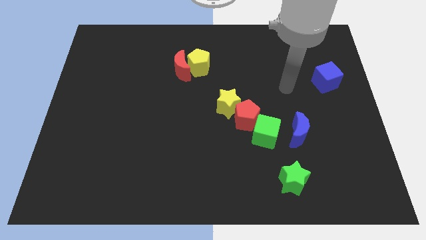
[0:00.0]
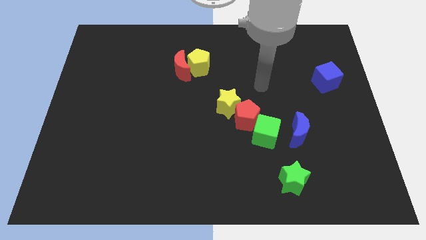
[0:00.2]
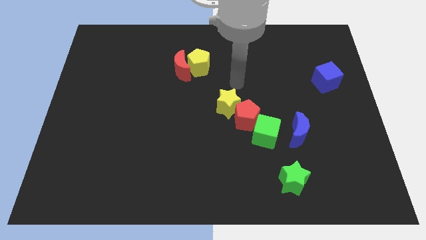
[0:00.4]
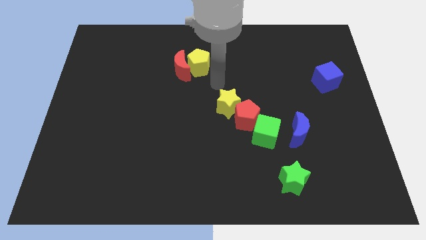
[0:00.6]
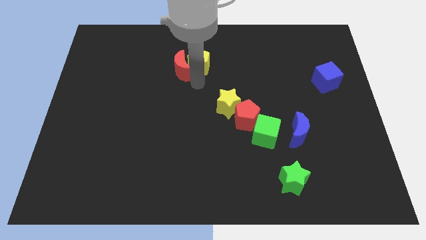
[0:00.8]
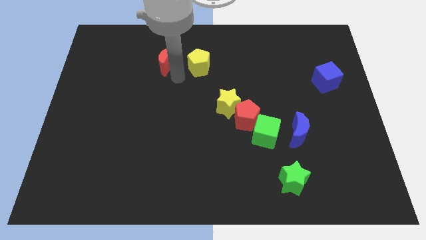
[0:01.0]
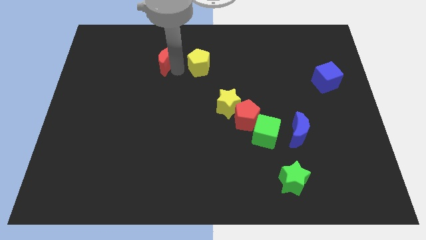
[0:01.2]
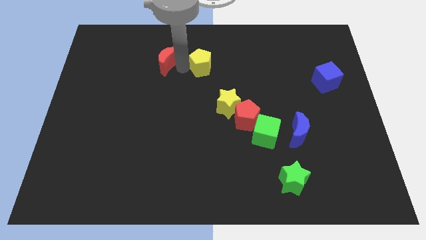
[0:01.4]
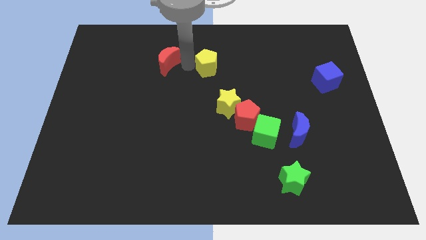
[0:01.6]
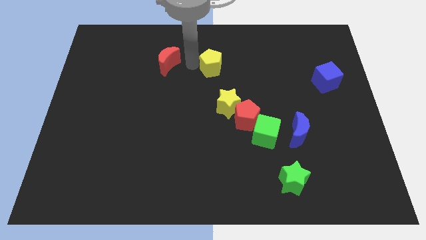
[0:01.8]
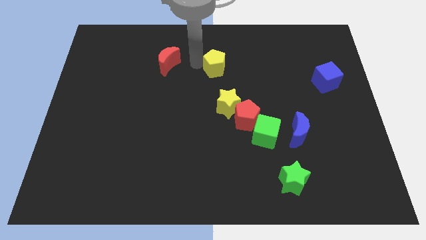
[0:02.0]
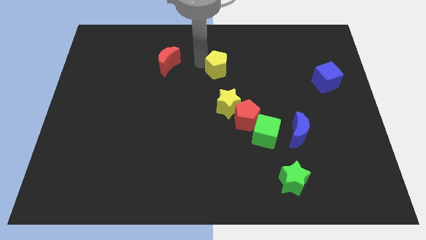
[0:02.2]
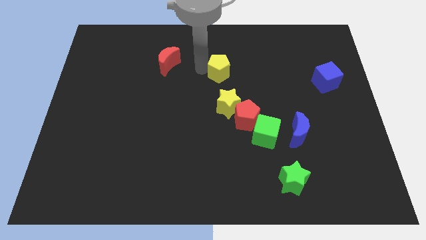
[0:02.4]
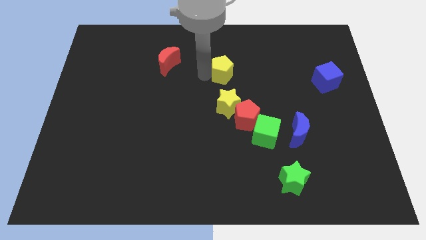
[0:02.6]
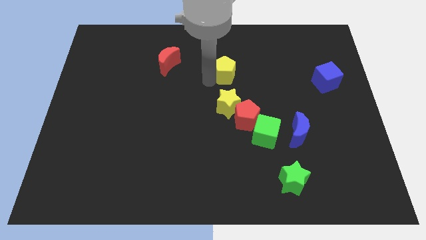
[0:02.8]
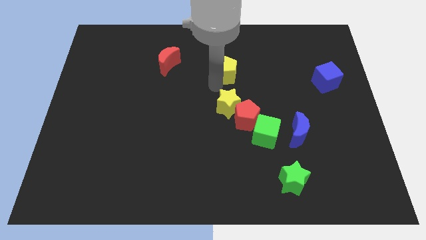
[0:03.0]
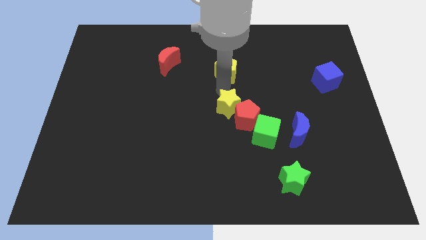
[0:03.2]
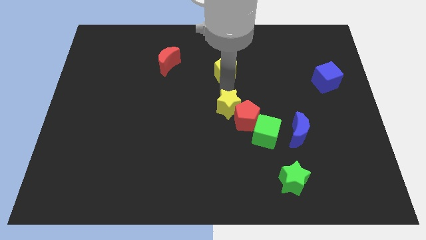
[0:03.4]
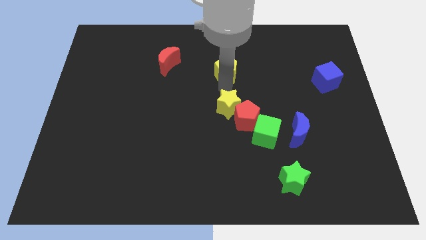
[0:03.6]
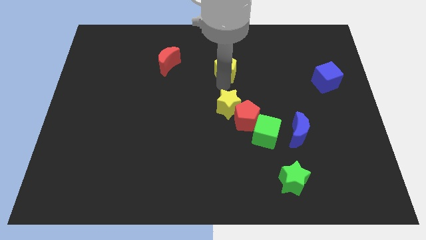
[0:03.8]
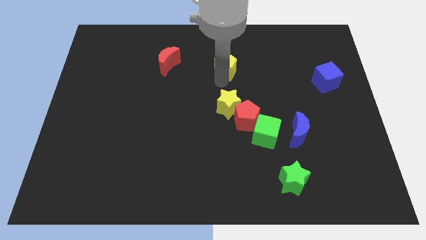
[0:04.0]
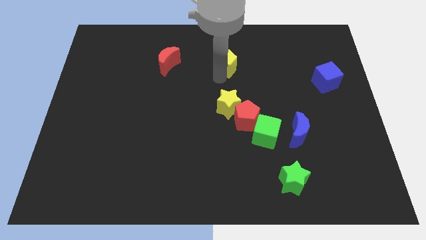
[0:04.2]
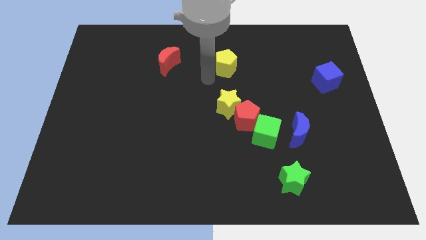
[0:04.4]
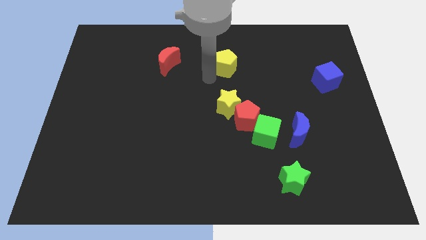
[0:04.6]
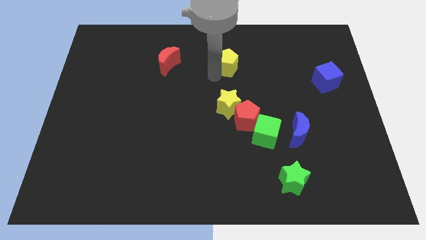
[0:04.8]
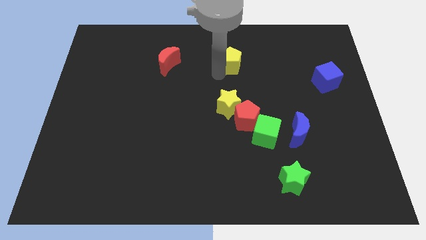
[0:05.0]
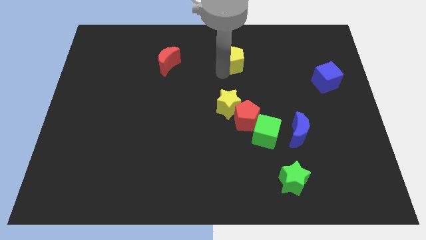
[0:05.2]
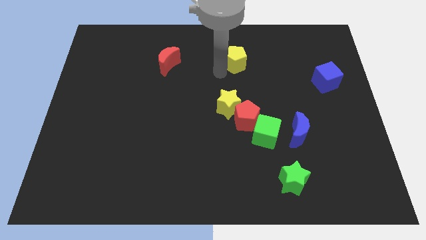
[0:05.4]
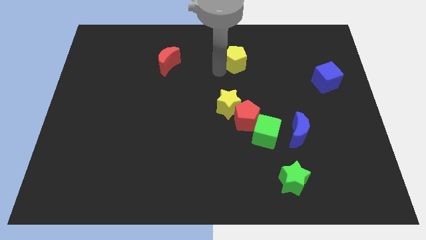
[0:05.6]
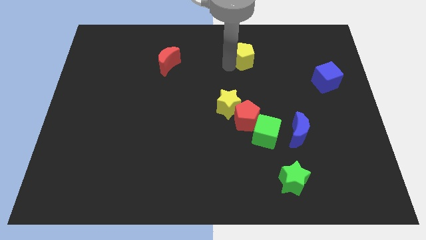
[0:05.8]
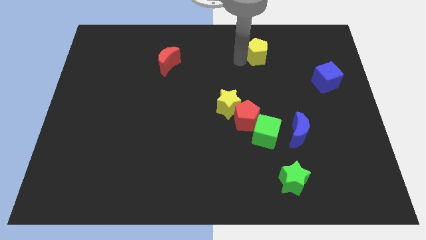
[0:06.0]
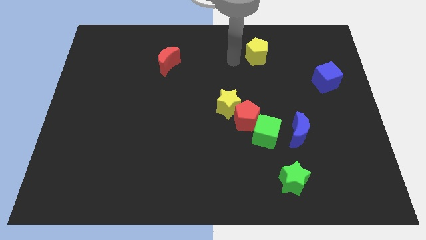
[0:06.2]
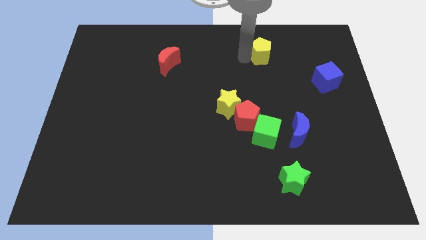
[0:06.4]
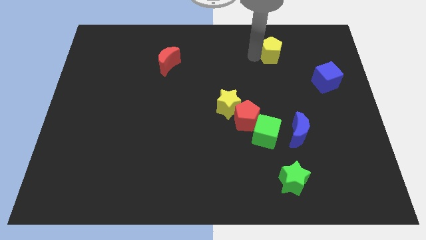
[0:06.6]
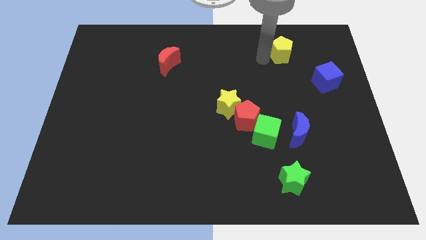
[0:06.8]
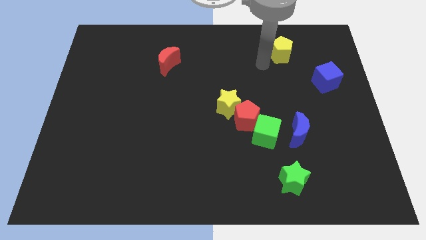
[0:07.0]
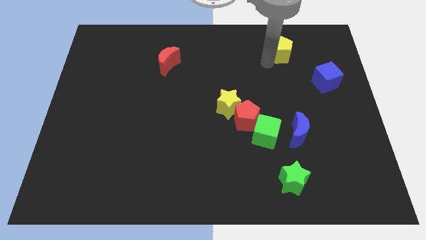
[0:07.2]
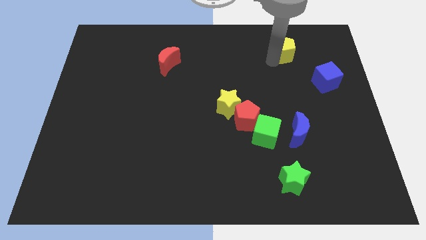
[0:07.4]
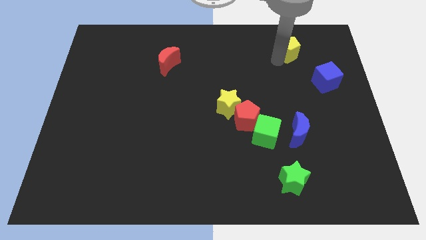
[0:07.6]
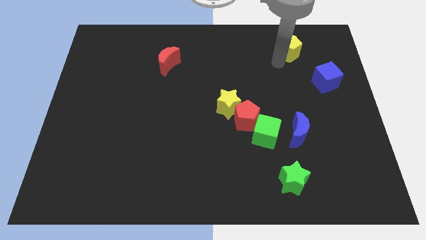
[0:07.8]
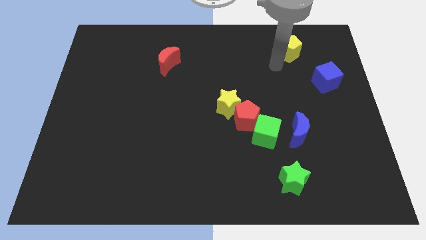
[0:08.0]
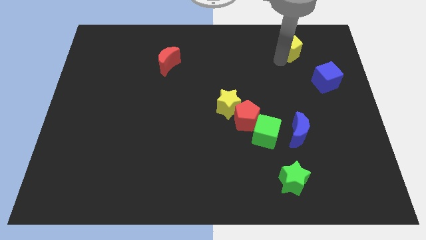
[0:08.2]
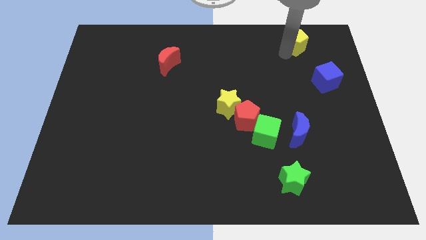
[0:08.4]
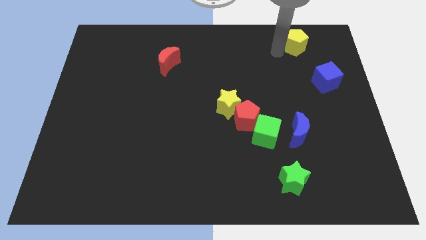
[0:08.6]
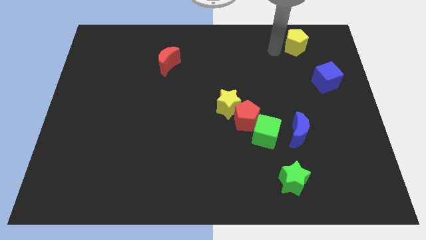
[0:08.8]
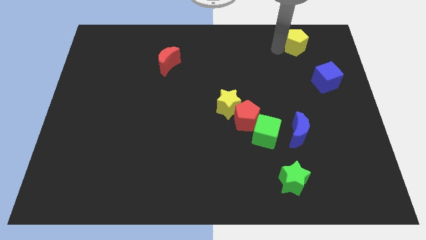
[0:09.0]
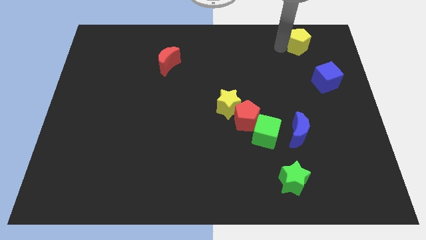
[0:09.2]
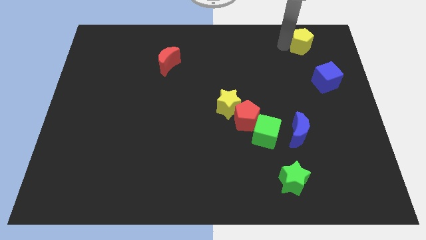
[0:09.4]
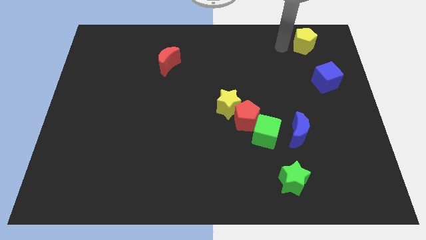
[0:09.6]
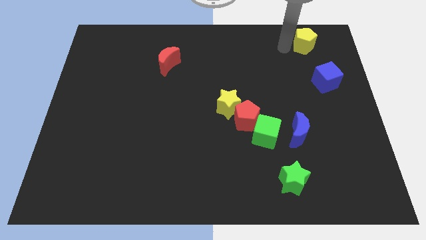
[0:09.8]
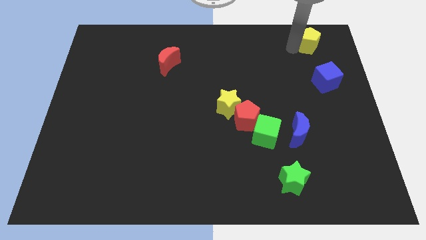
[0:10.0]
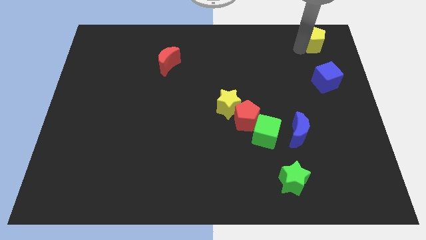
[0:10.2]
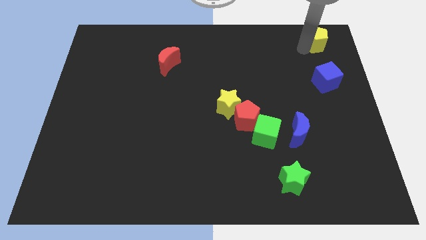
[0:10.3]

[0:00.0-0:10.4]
slide the yellow pentagon to the upper right corner

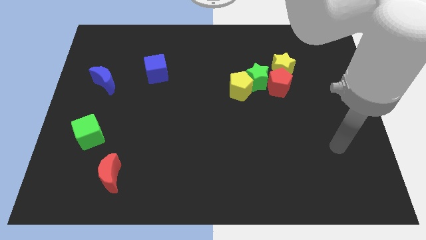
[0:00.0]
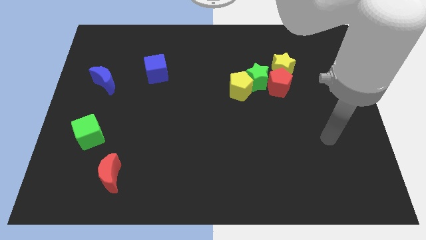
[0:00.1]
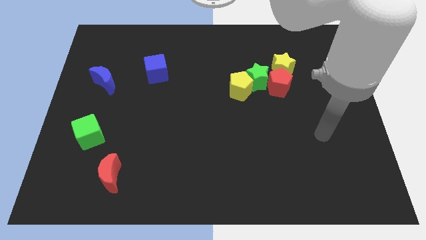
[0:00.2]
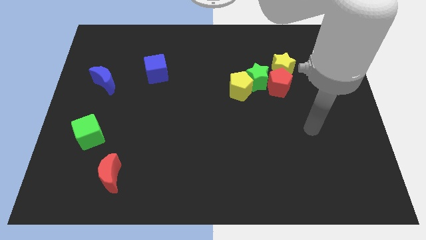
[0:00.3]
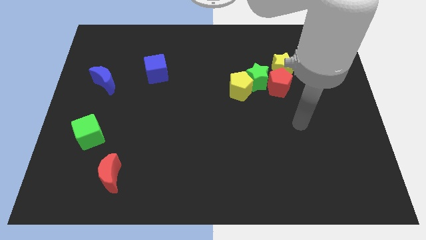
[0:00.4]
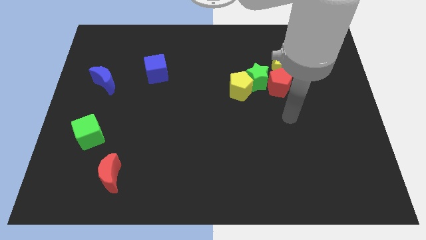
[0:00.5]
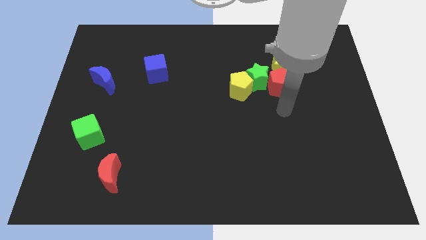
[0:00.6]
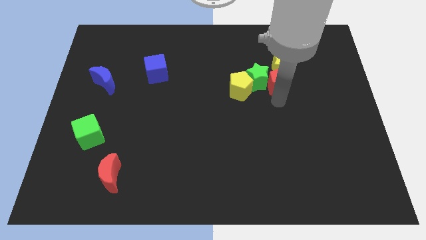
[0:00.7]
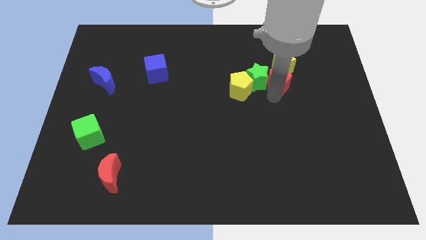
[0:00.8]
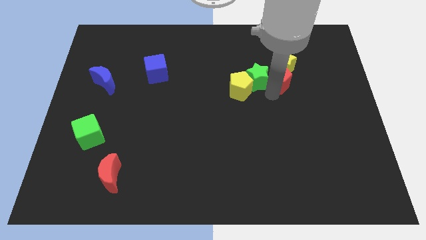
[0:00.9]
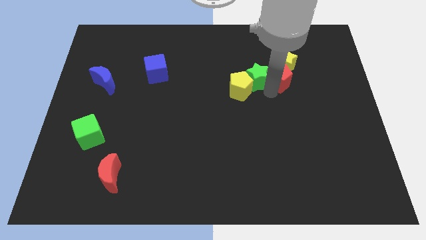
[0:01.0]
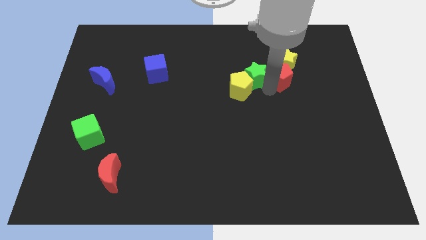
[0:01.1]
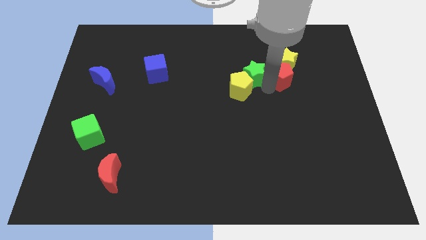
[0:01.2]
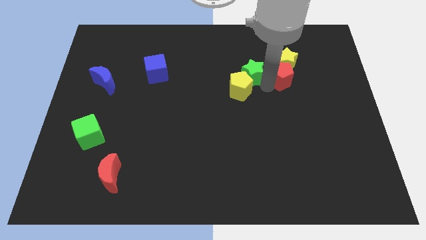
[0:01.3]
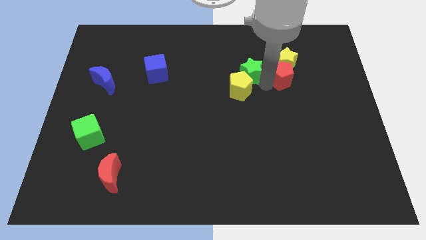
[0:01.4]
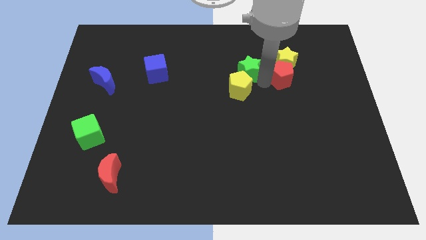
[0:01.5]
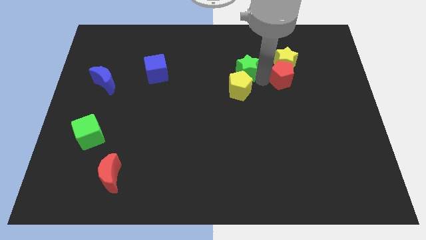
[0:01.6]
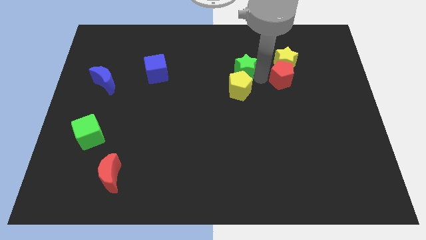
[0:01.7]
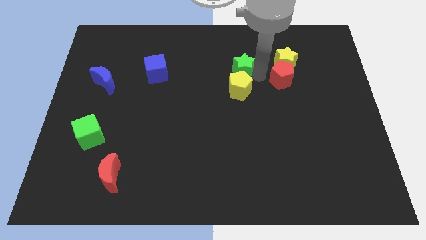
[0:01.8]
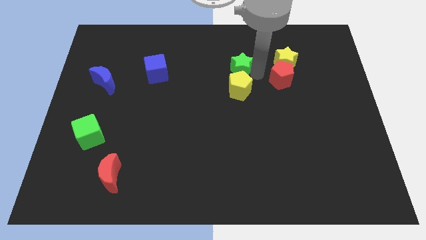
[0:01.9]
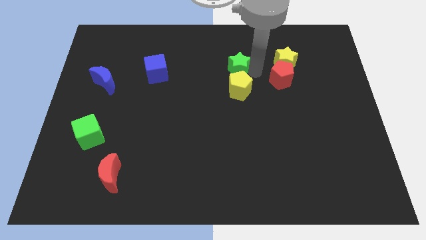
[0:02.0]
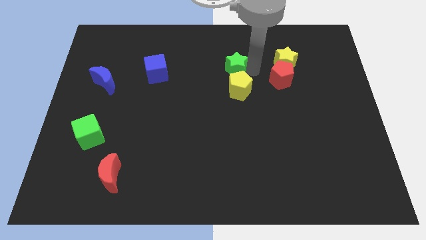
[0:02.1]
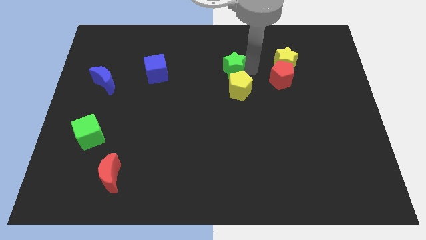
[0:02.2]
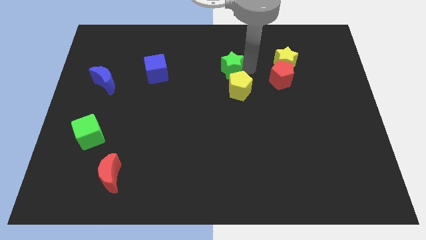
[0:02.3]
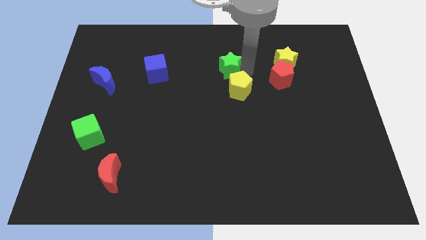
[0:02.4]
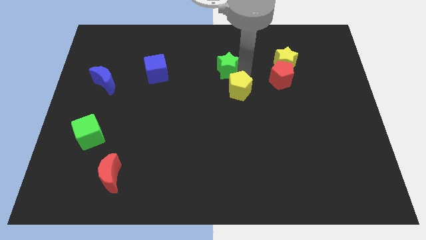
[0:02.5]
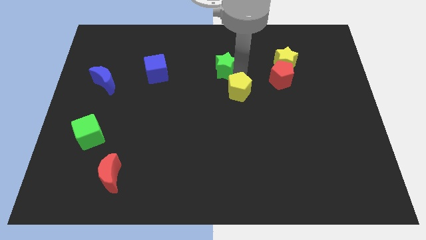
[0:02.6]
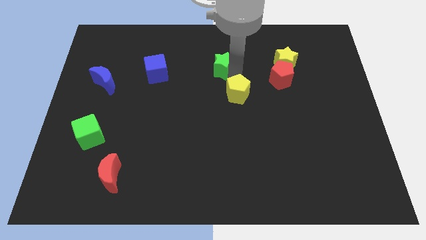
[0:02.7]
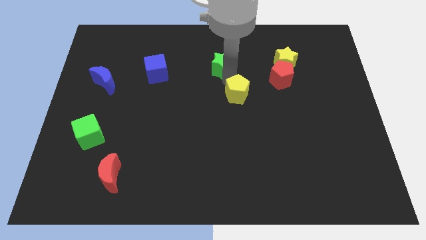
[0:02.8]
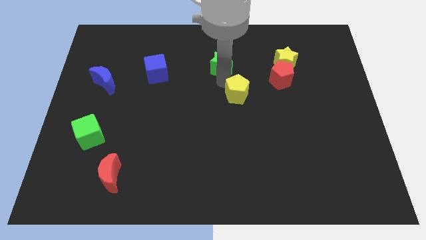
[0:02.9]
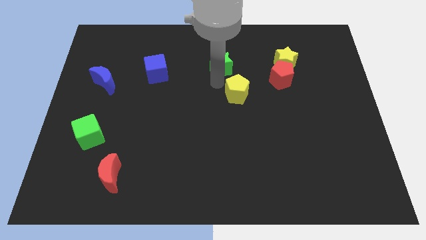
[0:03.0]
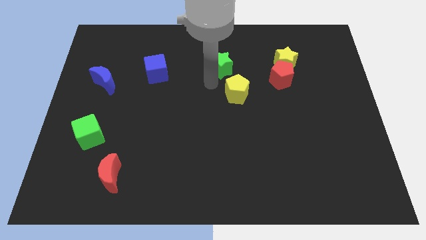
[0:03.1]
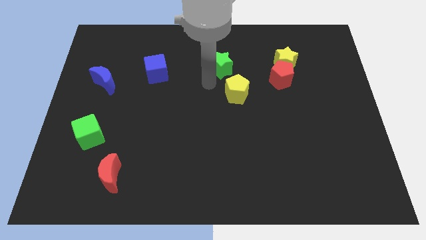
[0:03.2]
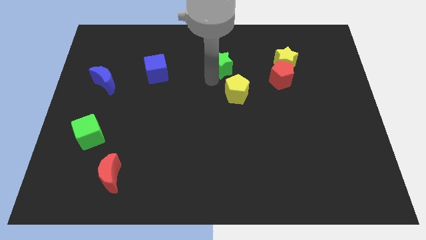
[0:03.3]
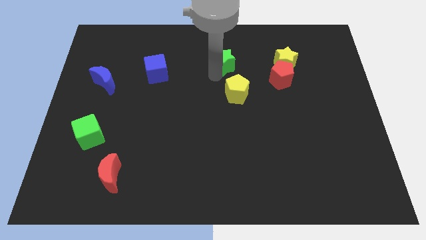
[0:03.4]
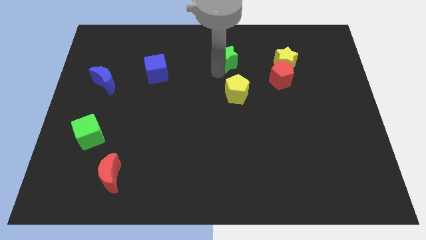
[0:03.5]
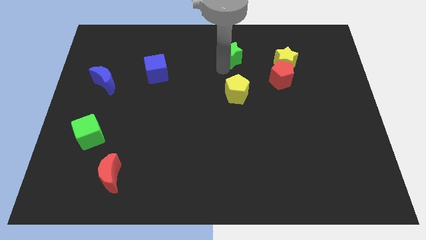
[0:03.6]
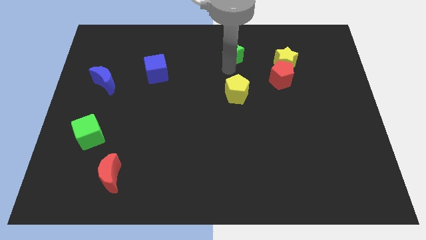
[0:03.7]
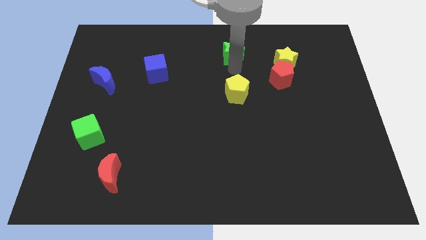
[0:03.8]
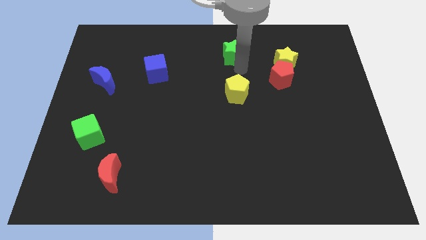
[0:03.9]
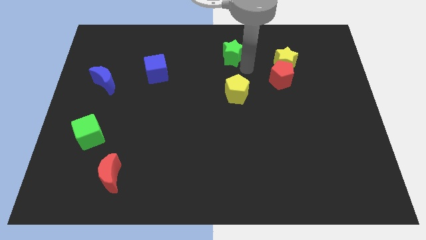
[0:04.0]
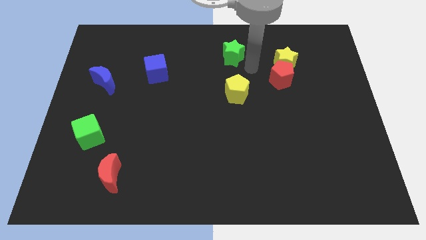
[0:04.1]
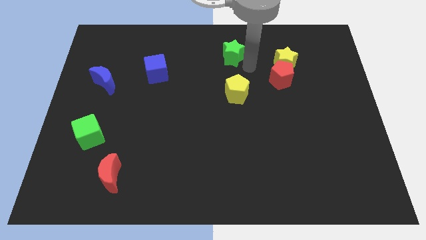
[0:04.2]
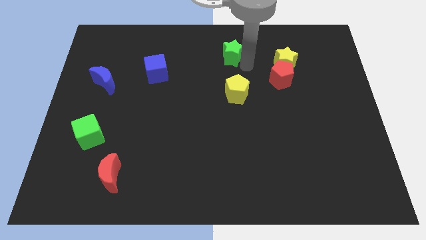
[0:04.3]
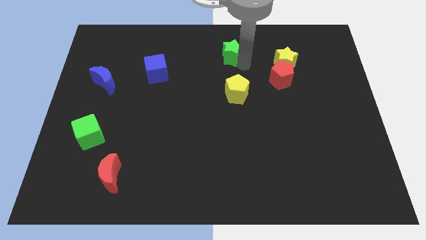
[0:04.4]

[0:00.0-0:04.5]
put the green star to the top
